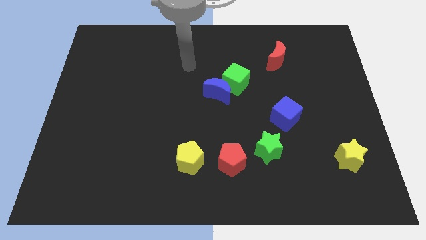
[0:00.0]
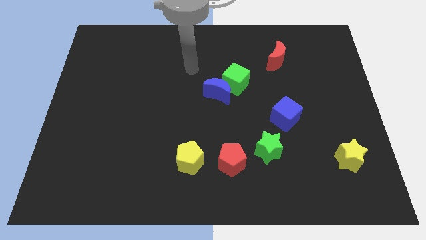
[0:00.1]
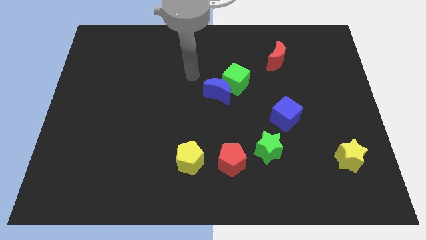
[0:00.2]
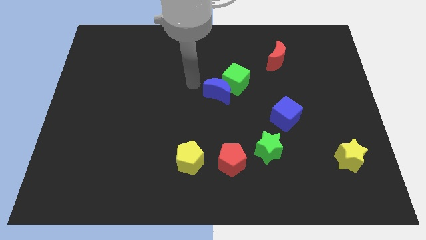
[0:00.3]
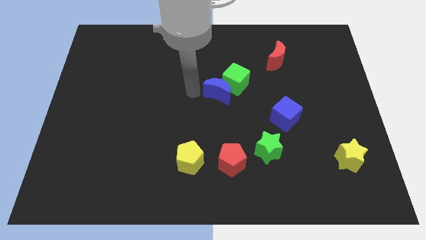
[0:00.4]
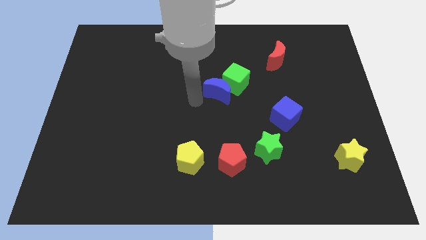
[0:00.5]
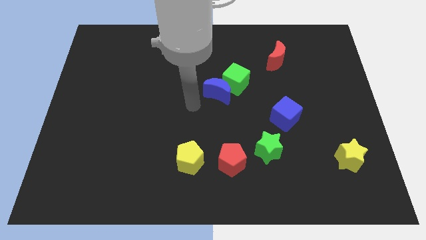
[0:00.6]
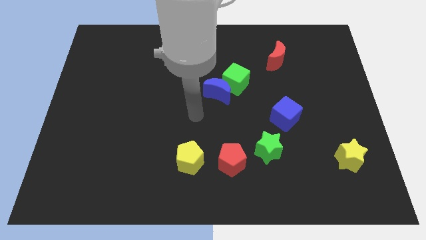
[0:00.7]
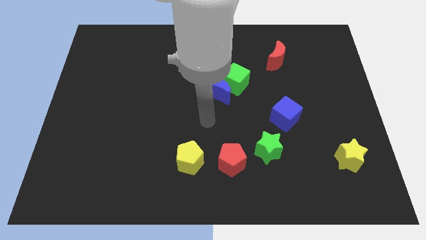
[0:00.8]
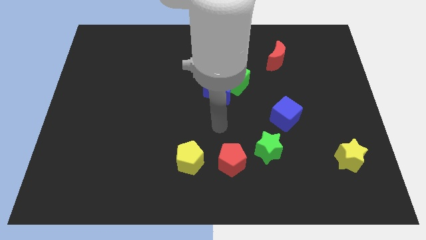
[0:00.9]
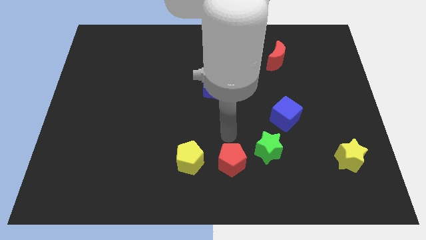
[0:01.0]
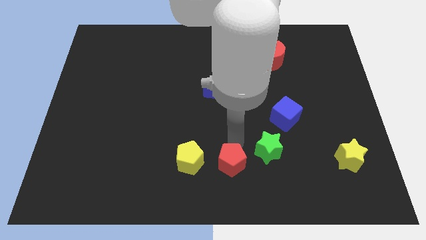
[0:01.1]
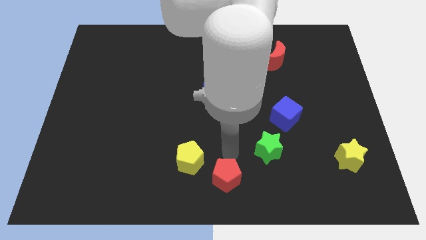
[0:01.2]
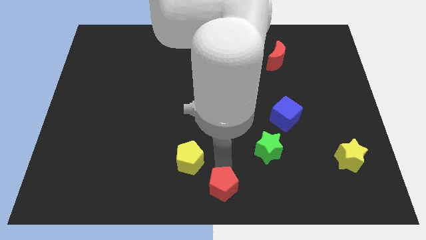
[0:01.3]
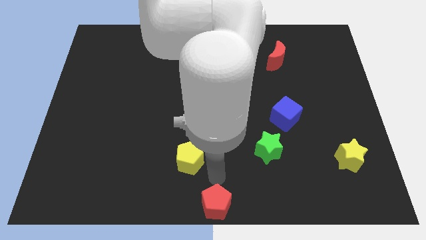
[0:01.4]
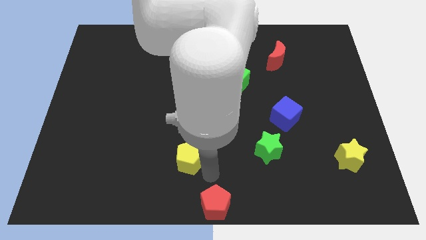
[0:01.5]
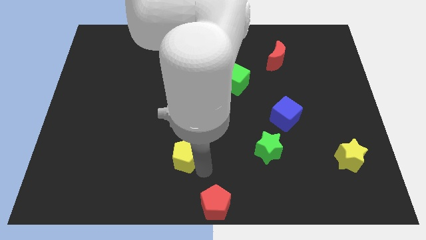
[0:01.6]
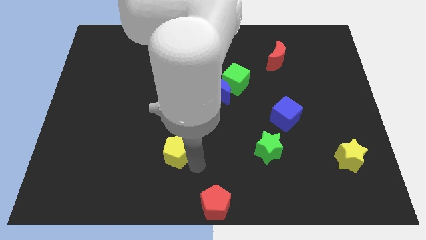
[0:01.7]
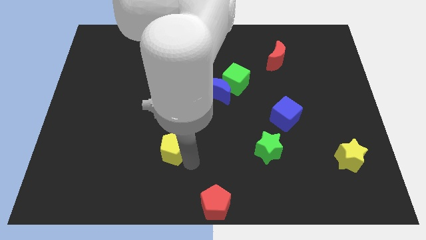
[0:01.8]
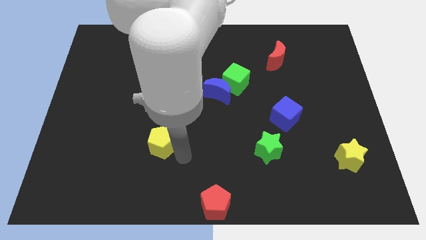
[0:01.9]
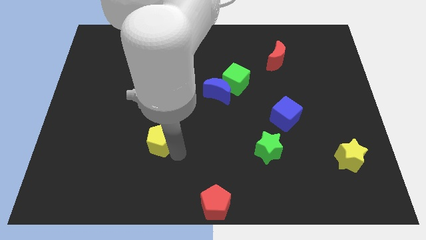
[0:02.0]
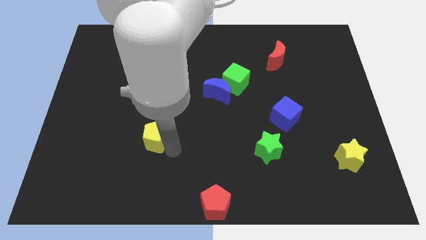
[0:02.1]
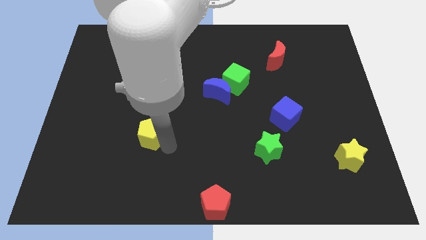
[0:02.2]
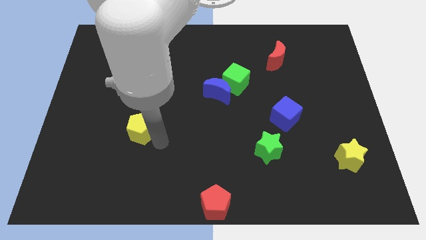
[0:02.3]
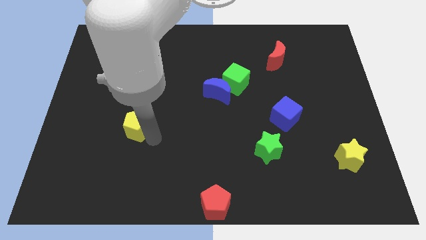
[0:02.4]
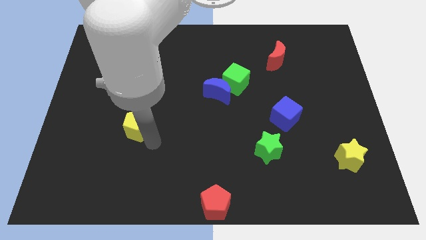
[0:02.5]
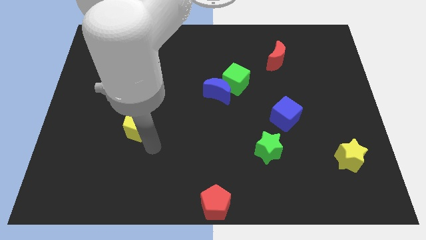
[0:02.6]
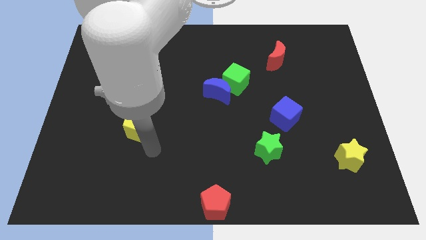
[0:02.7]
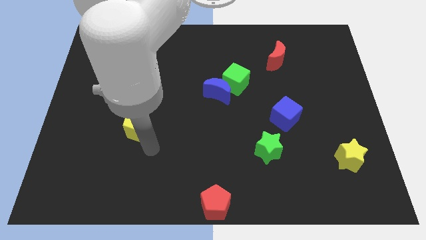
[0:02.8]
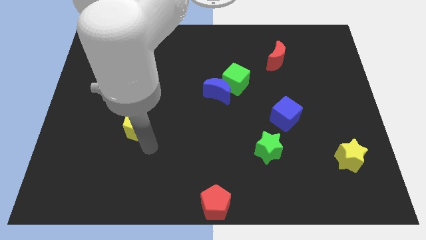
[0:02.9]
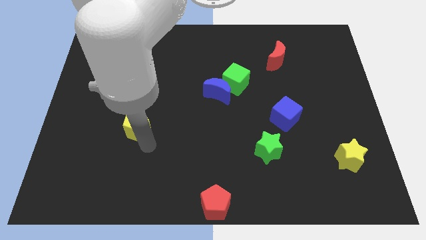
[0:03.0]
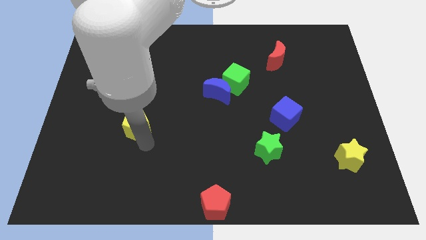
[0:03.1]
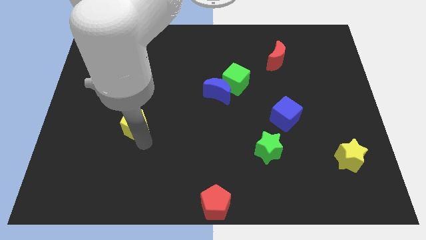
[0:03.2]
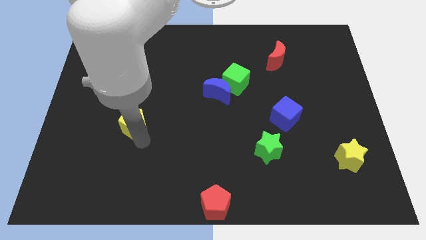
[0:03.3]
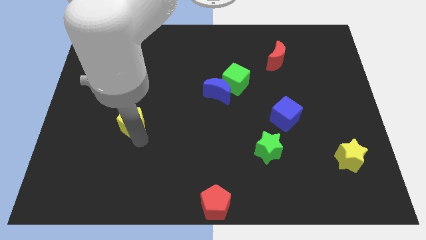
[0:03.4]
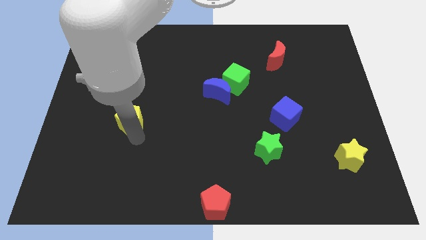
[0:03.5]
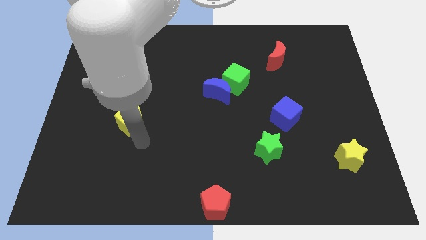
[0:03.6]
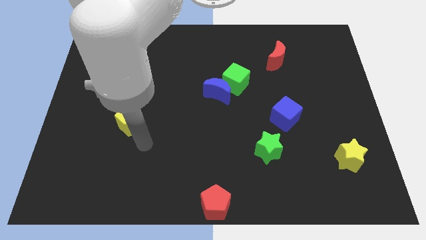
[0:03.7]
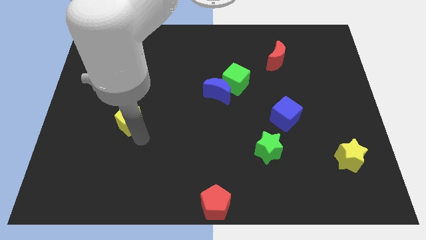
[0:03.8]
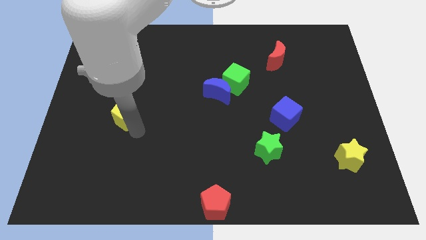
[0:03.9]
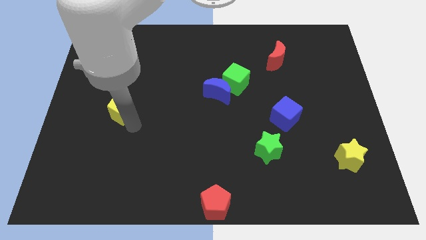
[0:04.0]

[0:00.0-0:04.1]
push the yellow pentagon diagonally upwards and to the left

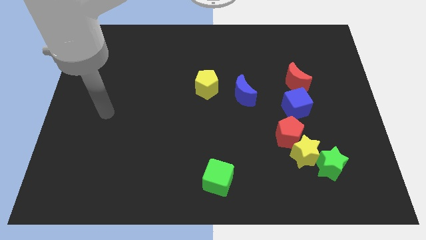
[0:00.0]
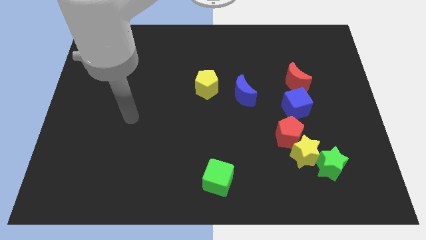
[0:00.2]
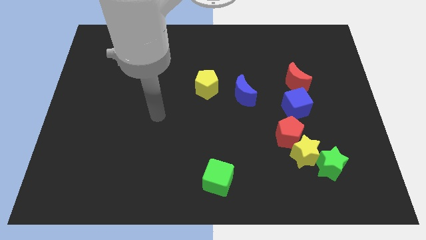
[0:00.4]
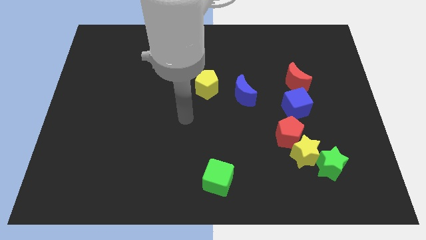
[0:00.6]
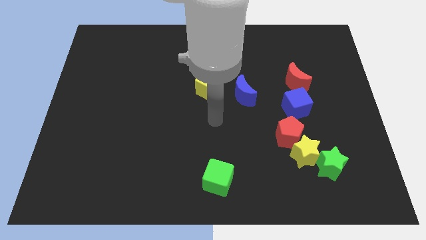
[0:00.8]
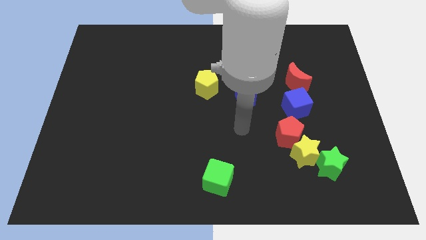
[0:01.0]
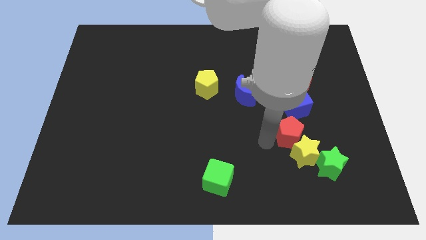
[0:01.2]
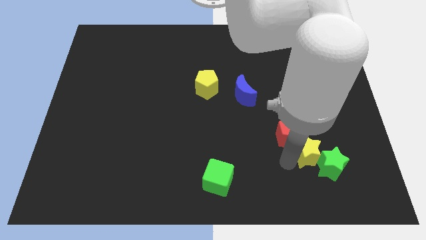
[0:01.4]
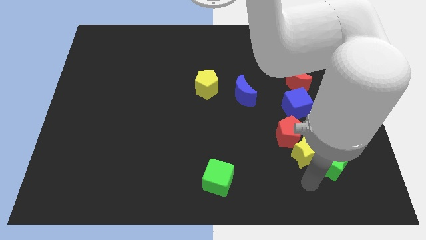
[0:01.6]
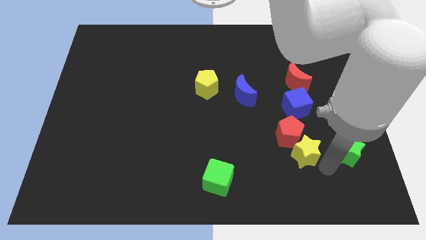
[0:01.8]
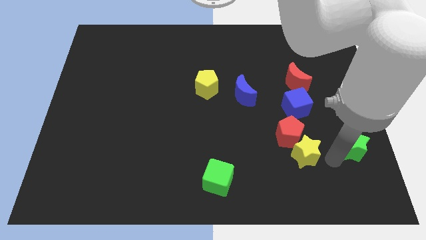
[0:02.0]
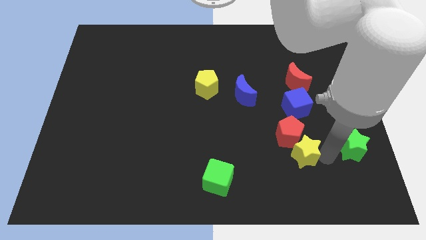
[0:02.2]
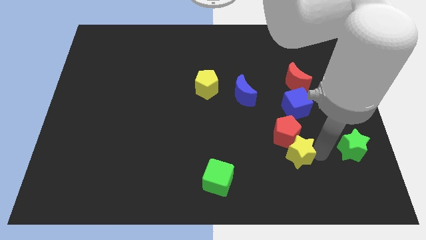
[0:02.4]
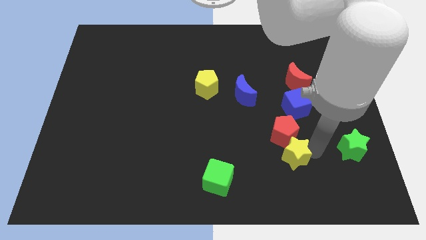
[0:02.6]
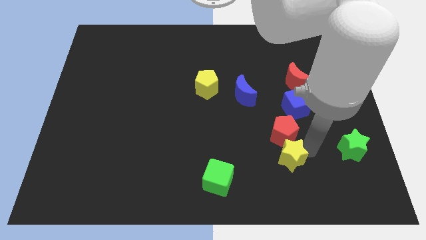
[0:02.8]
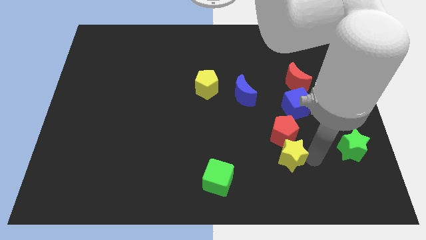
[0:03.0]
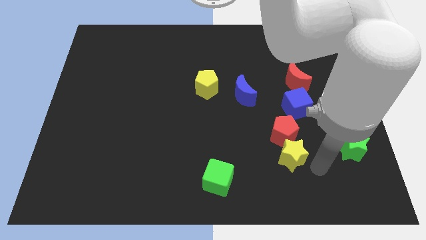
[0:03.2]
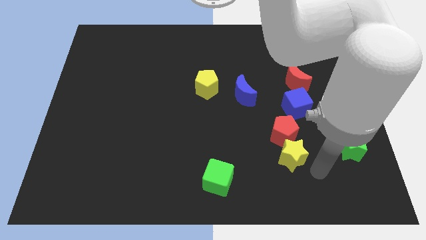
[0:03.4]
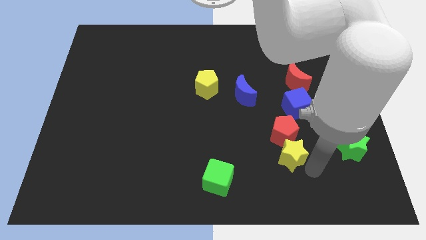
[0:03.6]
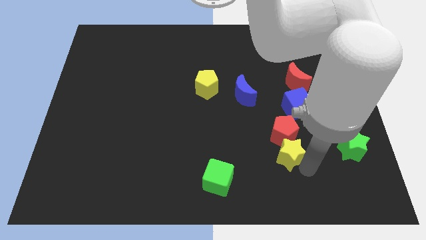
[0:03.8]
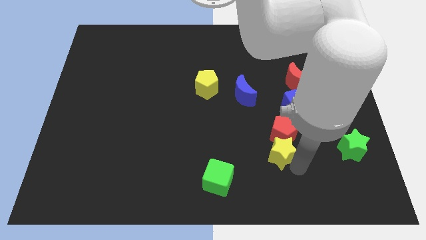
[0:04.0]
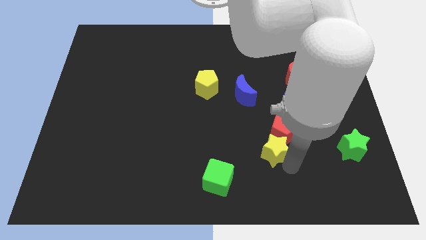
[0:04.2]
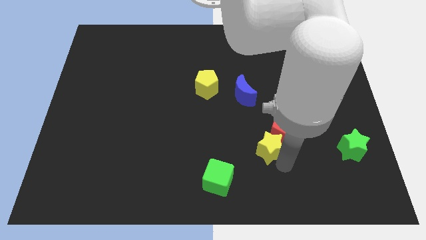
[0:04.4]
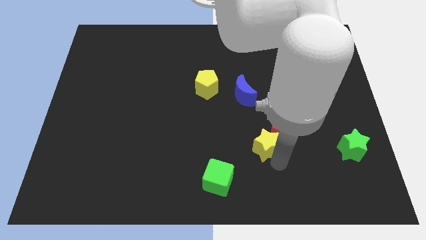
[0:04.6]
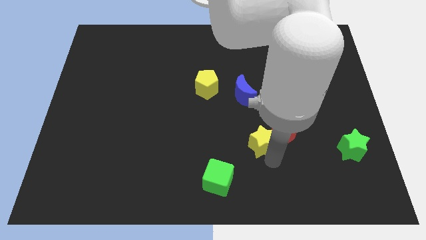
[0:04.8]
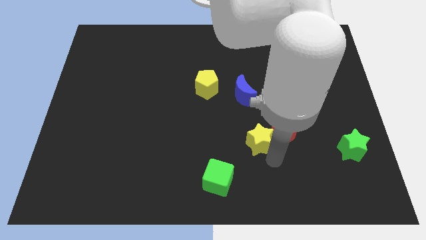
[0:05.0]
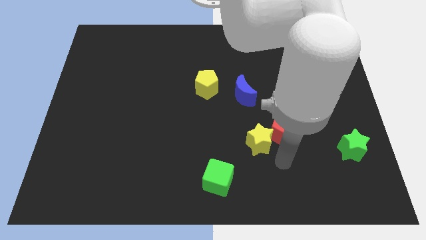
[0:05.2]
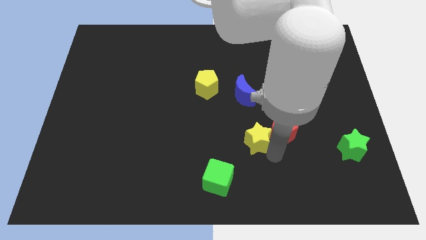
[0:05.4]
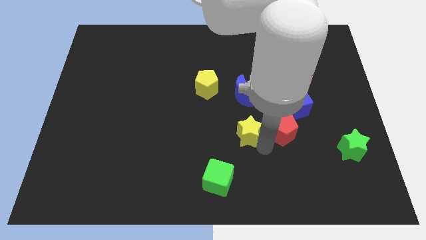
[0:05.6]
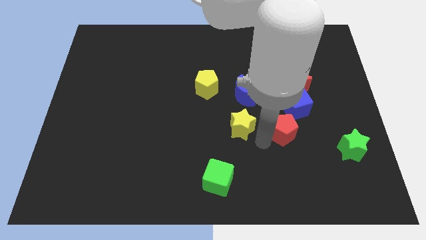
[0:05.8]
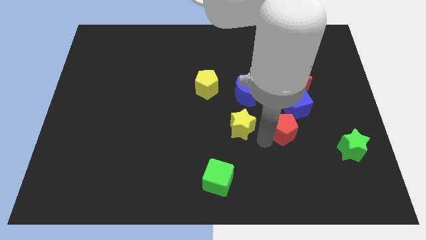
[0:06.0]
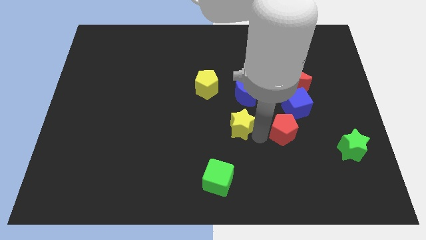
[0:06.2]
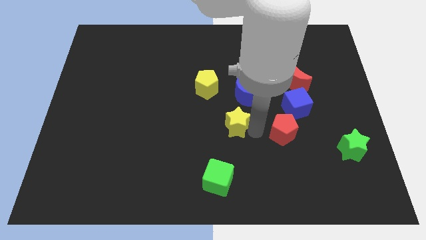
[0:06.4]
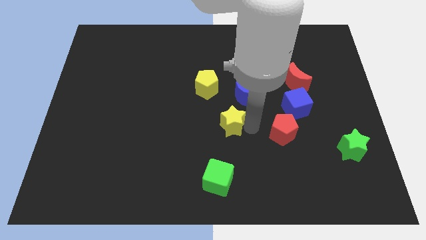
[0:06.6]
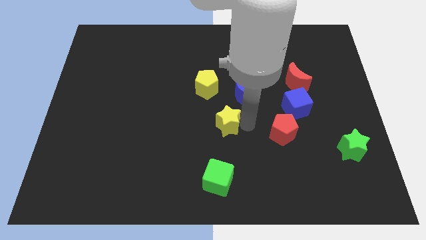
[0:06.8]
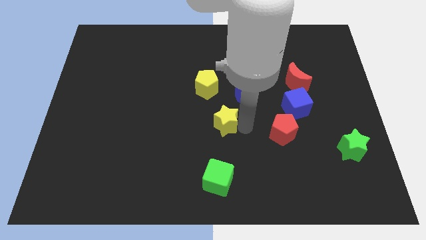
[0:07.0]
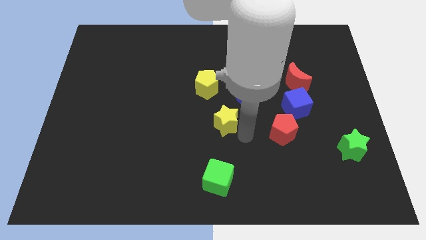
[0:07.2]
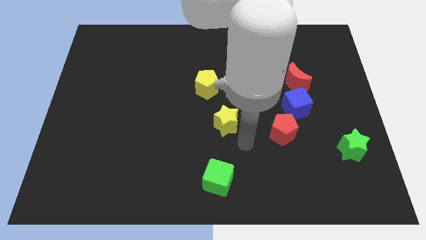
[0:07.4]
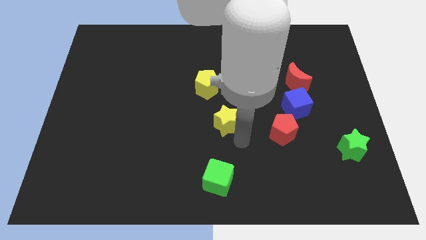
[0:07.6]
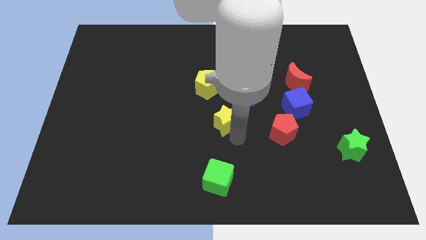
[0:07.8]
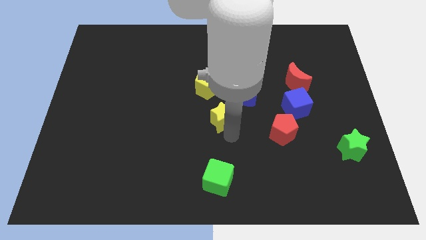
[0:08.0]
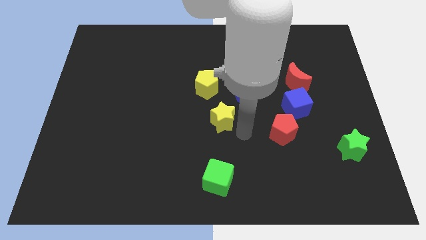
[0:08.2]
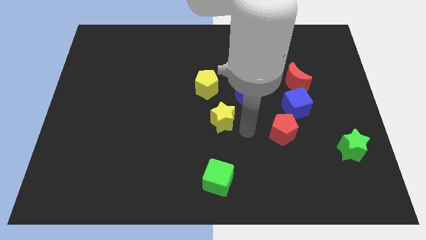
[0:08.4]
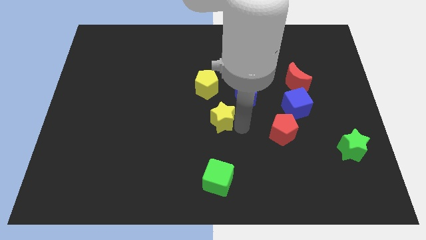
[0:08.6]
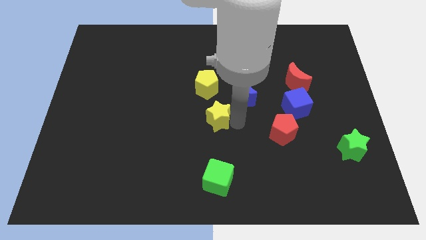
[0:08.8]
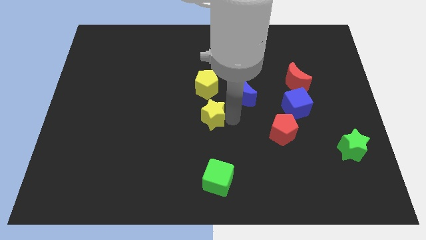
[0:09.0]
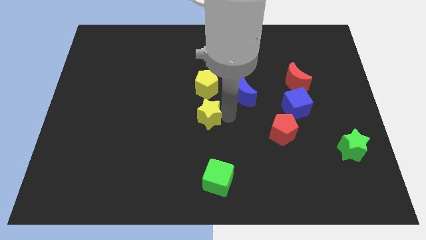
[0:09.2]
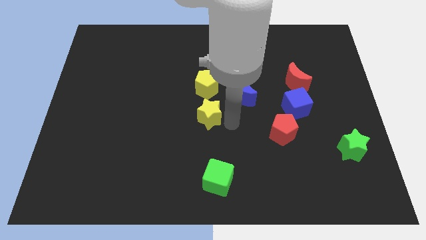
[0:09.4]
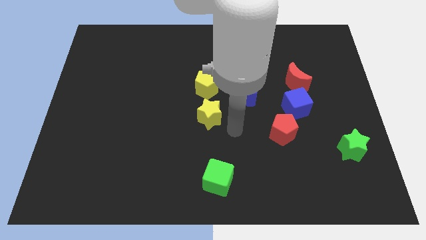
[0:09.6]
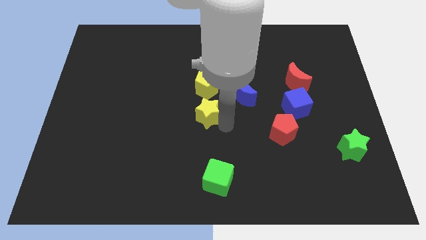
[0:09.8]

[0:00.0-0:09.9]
slide the yellow star upwards and to the left diagonally
